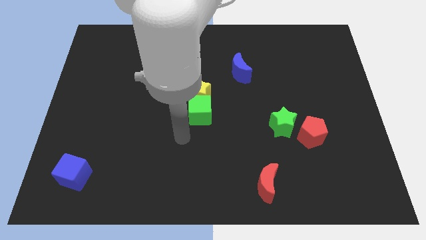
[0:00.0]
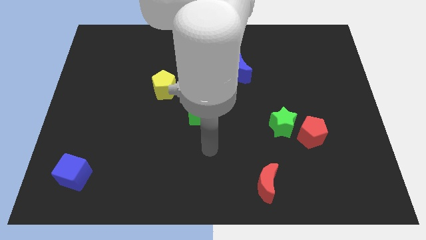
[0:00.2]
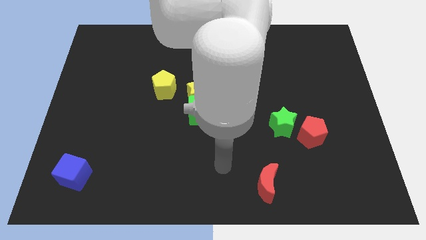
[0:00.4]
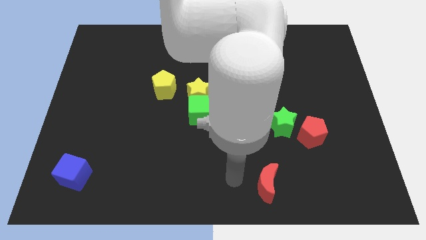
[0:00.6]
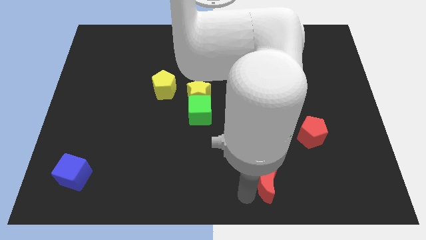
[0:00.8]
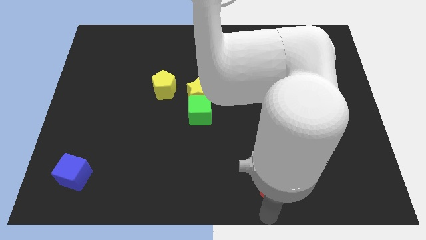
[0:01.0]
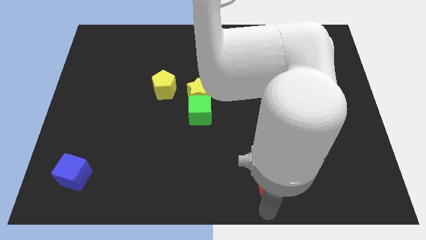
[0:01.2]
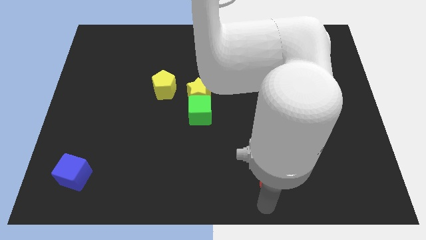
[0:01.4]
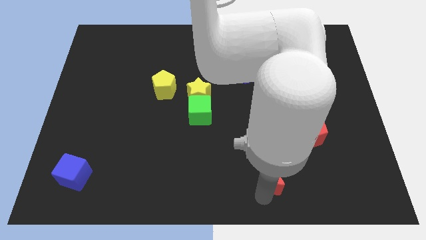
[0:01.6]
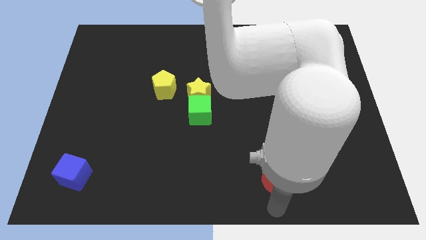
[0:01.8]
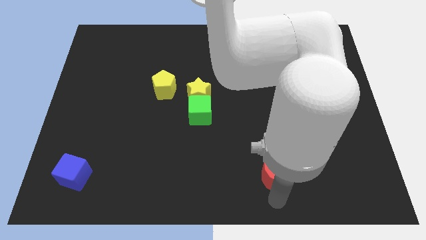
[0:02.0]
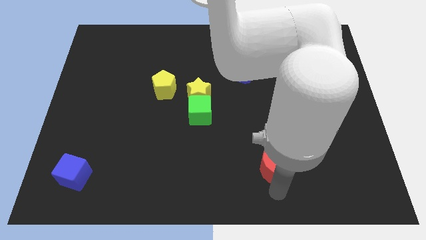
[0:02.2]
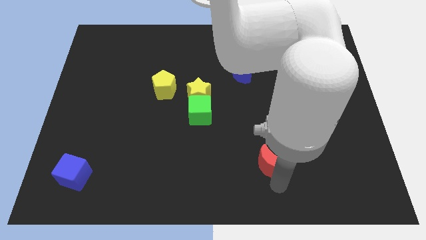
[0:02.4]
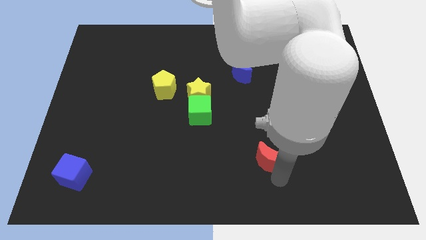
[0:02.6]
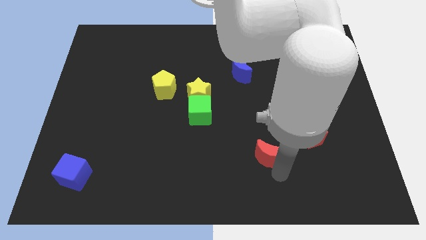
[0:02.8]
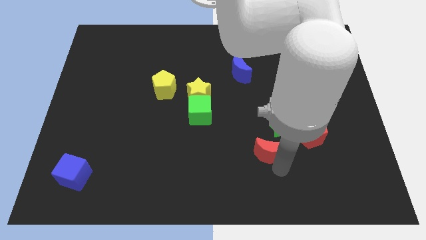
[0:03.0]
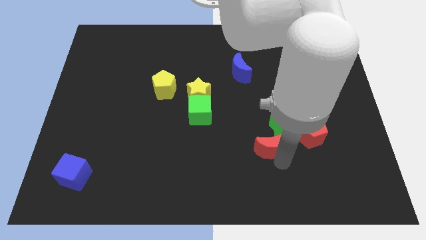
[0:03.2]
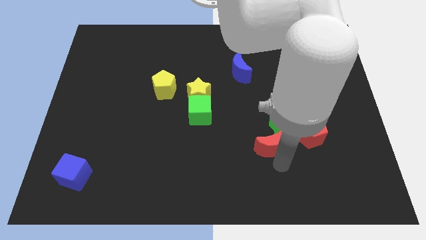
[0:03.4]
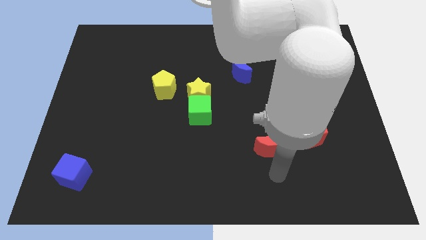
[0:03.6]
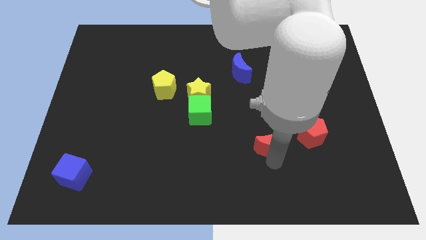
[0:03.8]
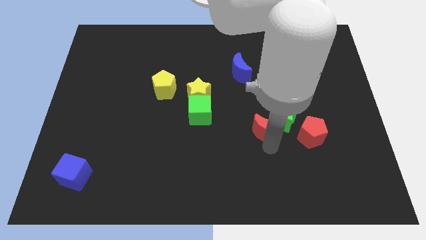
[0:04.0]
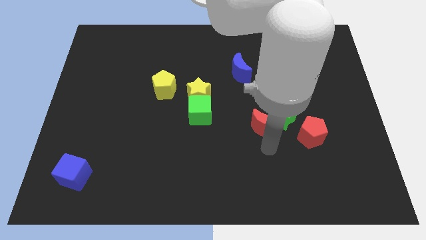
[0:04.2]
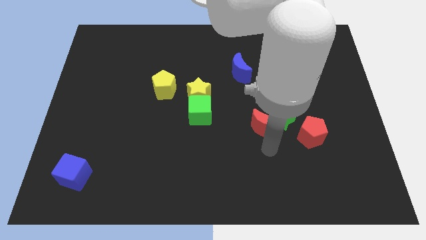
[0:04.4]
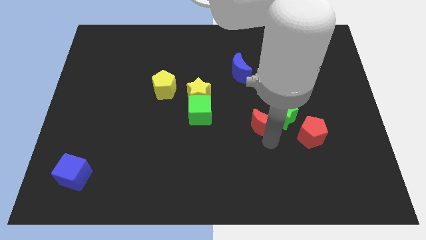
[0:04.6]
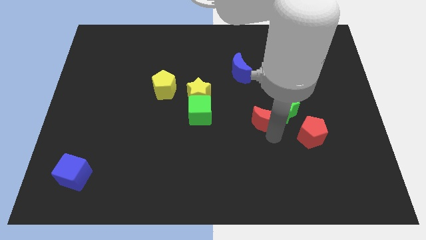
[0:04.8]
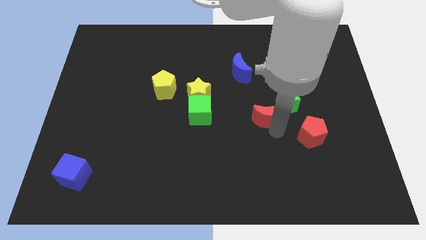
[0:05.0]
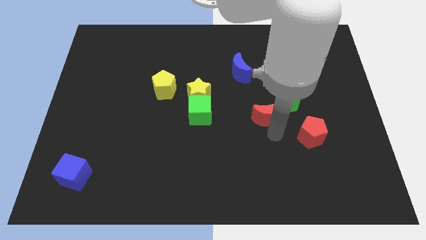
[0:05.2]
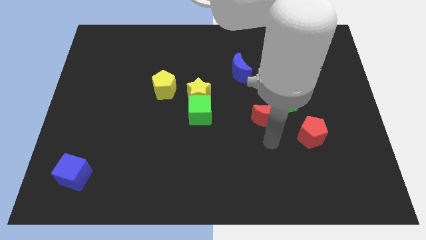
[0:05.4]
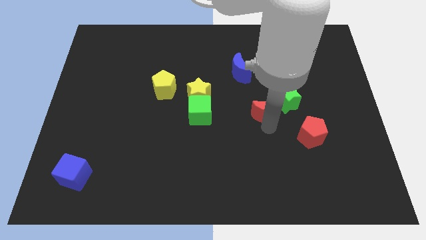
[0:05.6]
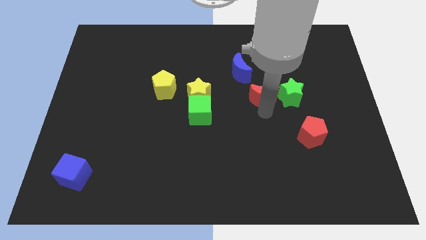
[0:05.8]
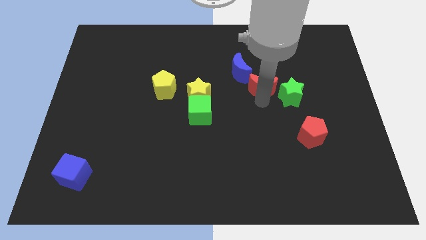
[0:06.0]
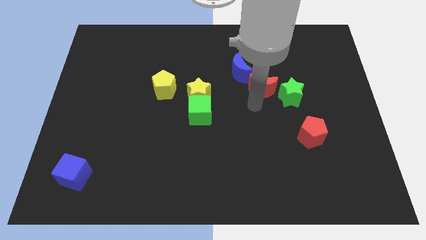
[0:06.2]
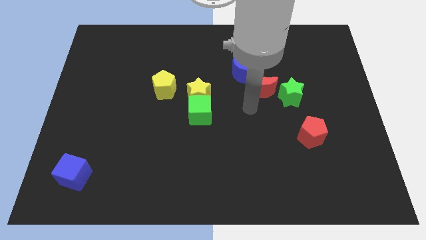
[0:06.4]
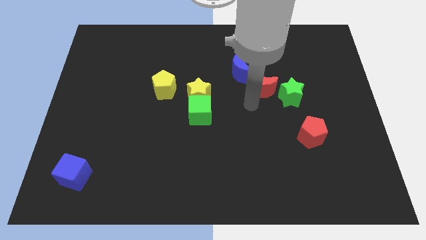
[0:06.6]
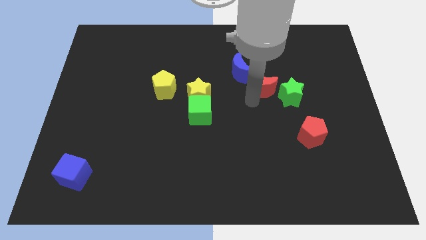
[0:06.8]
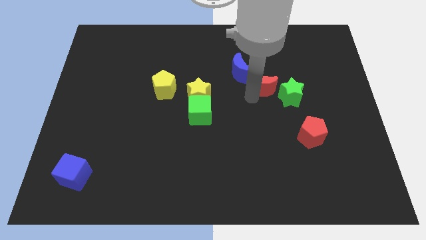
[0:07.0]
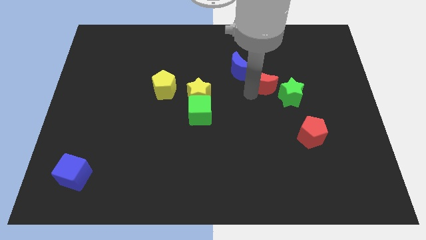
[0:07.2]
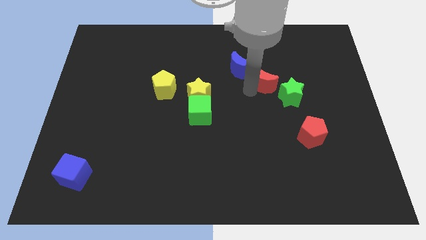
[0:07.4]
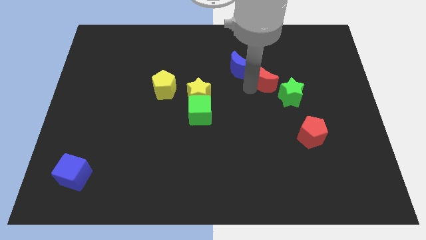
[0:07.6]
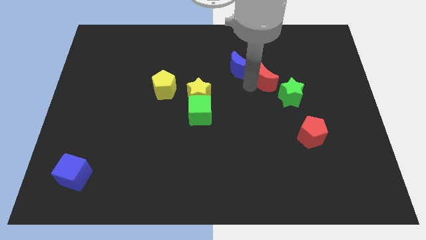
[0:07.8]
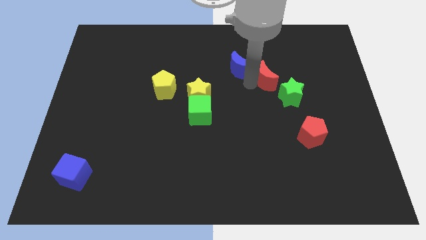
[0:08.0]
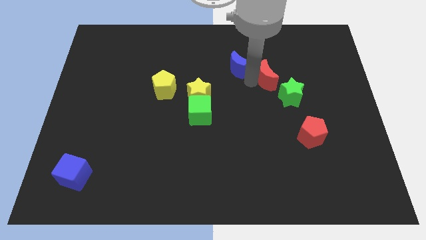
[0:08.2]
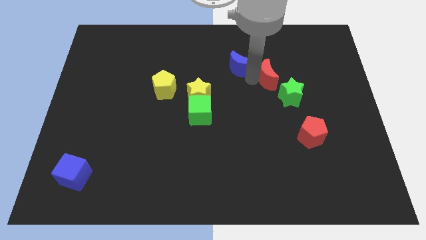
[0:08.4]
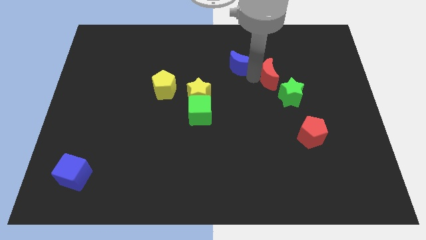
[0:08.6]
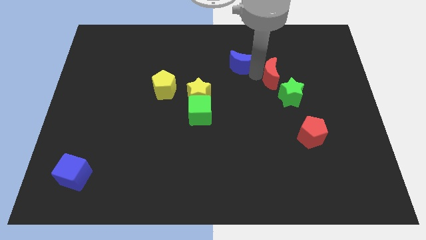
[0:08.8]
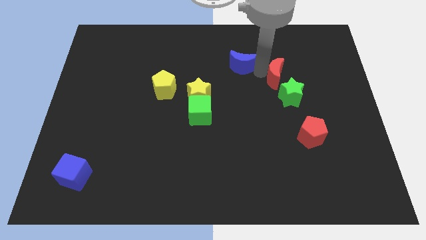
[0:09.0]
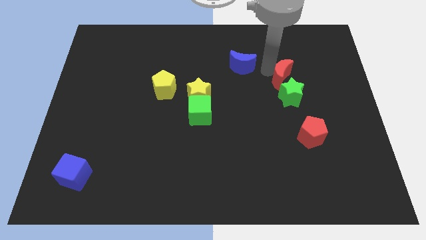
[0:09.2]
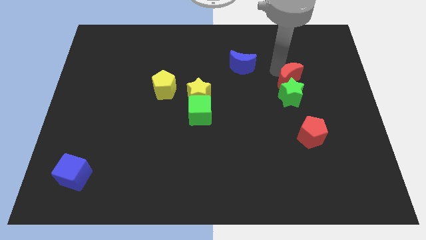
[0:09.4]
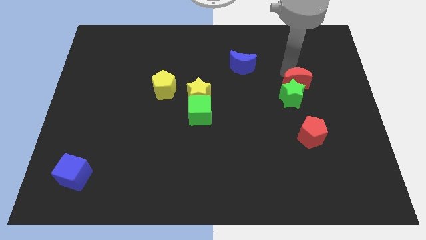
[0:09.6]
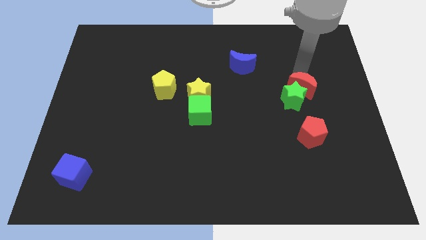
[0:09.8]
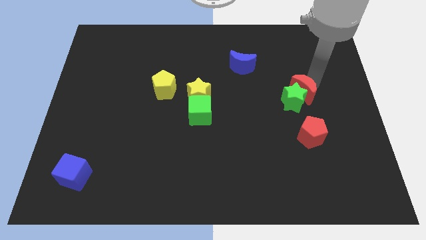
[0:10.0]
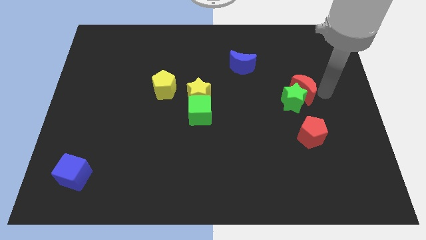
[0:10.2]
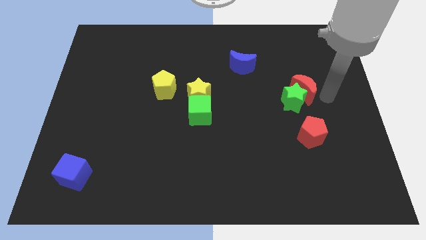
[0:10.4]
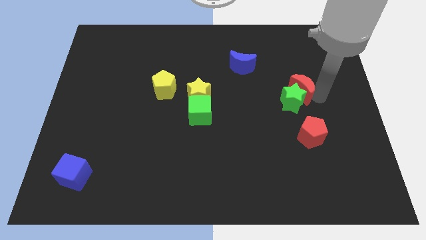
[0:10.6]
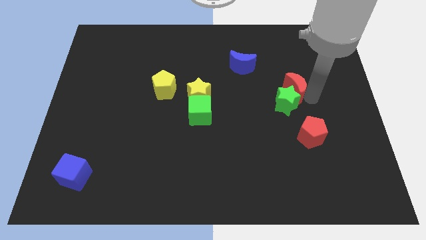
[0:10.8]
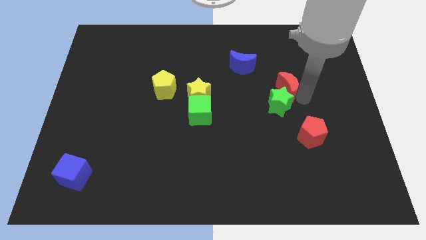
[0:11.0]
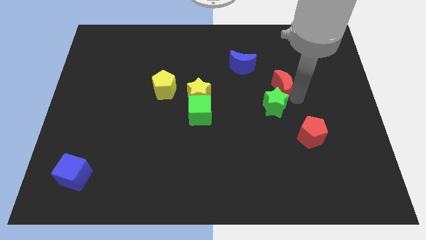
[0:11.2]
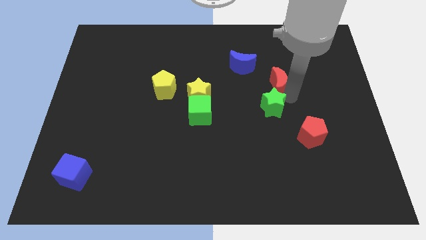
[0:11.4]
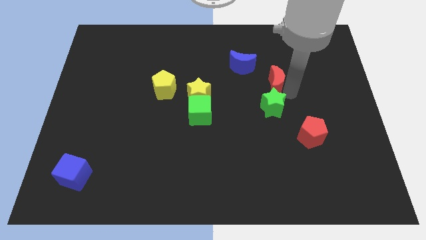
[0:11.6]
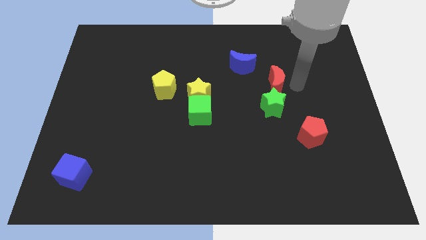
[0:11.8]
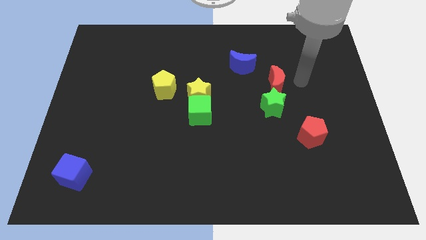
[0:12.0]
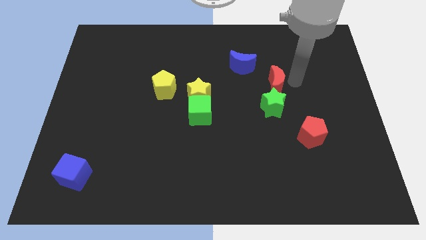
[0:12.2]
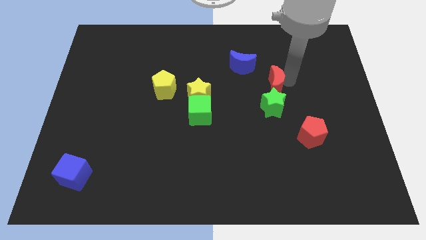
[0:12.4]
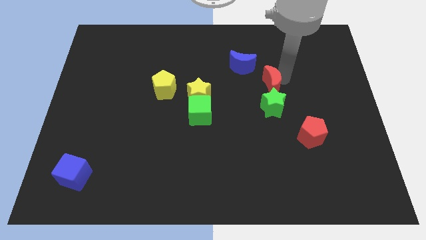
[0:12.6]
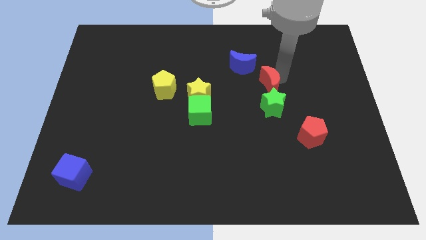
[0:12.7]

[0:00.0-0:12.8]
push the red moon diagonally up and to the left of the green star

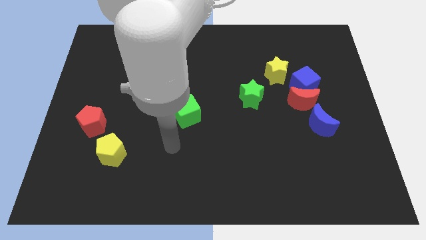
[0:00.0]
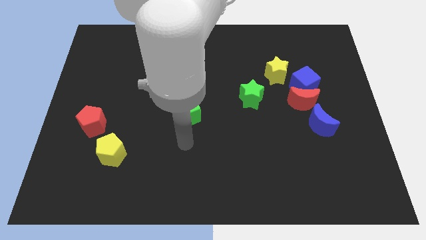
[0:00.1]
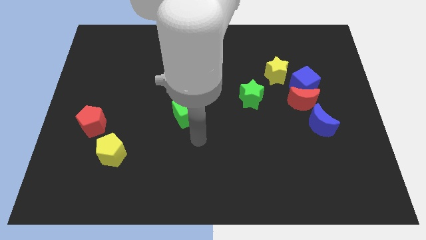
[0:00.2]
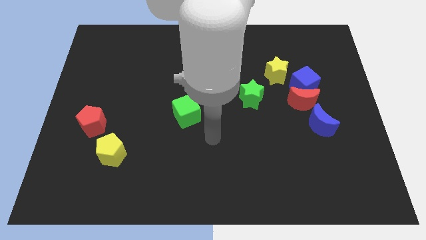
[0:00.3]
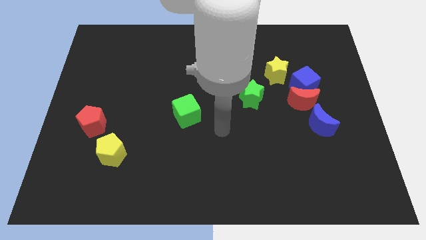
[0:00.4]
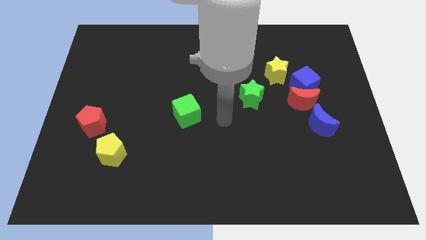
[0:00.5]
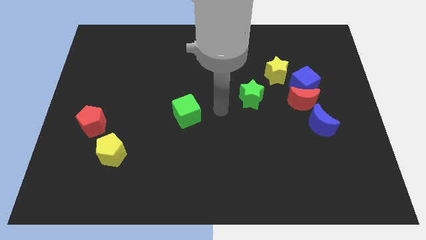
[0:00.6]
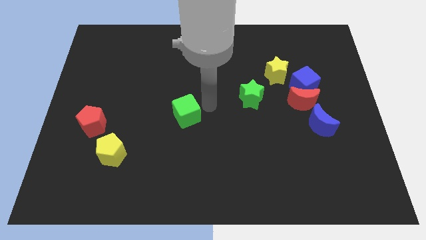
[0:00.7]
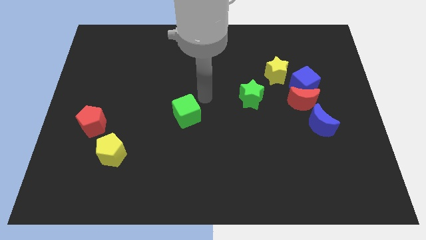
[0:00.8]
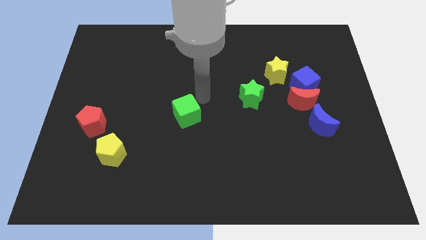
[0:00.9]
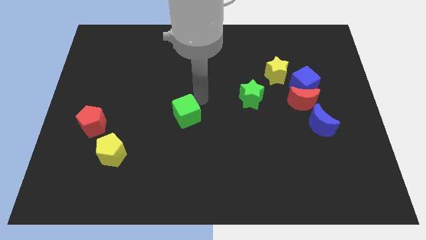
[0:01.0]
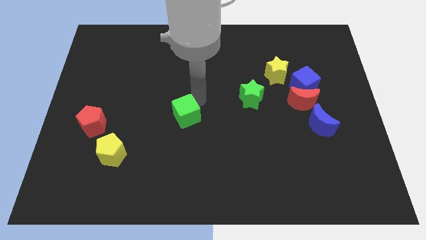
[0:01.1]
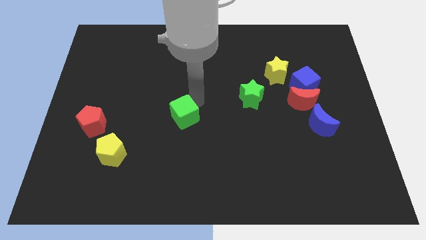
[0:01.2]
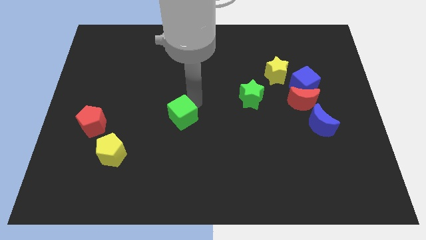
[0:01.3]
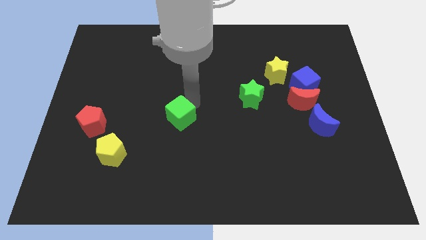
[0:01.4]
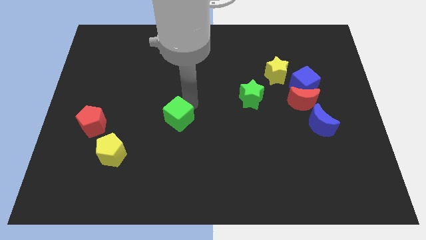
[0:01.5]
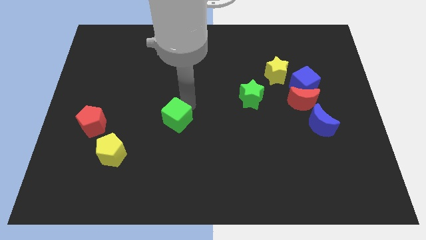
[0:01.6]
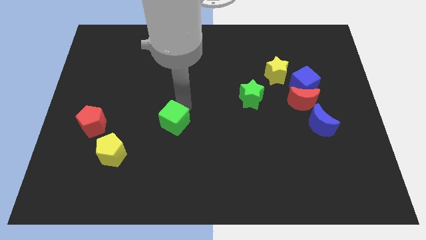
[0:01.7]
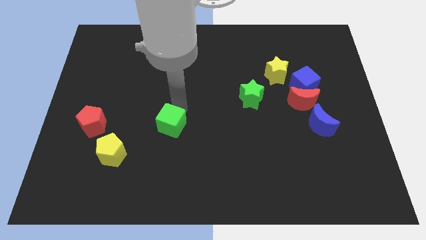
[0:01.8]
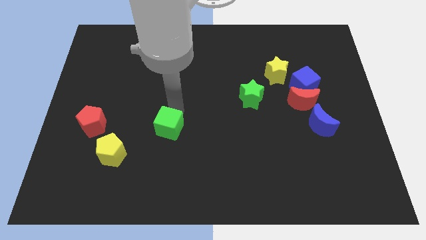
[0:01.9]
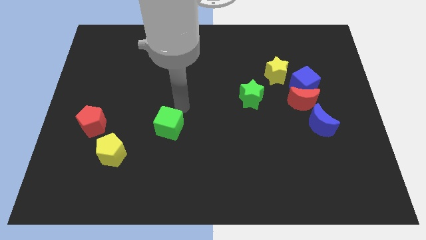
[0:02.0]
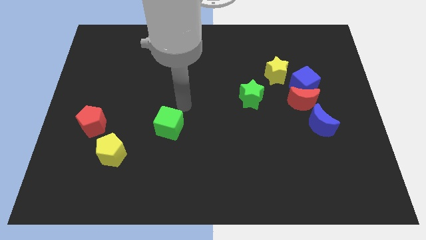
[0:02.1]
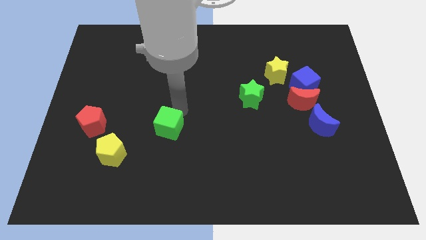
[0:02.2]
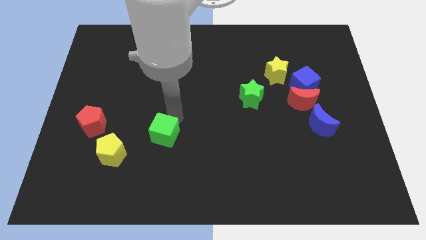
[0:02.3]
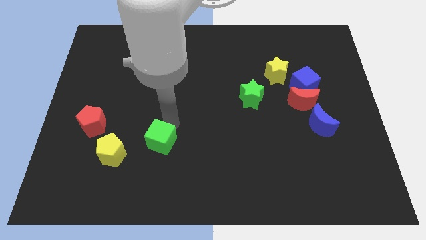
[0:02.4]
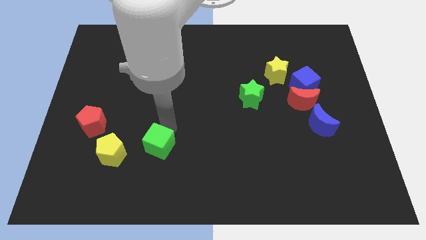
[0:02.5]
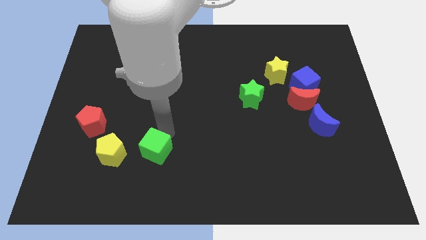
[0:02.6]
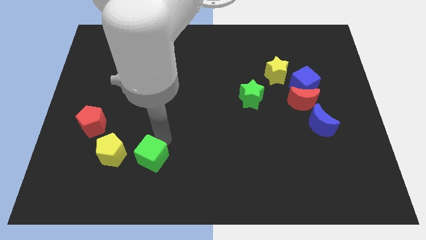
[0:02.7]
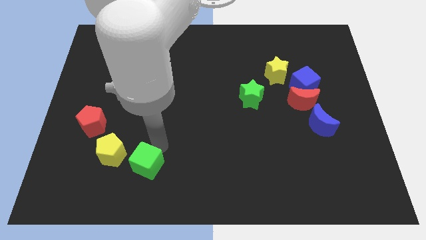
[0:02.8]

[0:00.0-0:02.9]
push the green cube to the bottom right of the yellow pentagon
